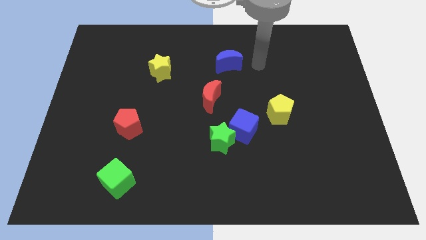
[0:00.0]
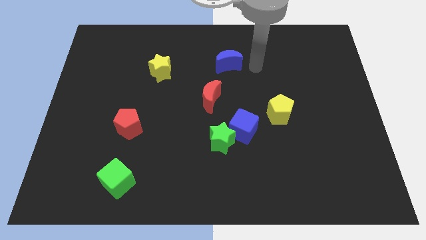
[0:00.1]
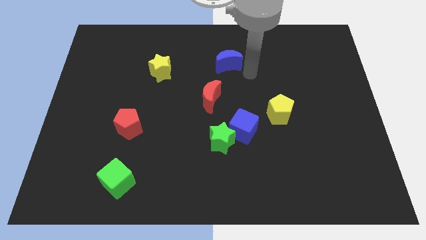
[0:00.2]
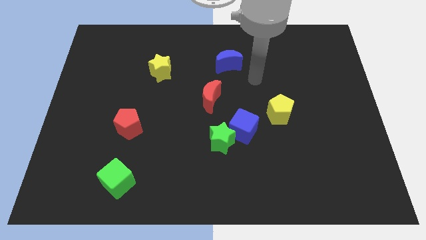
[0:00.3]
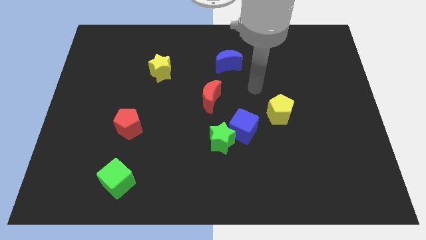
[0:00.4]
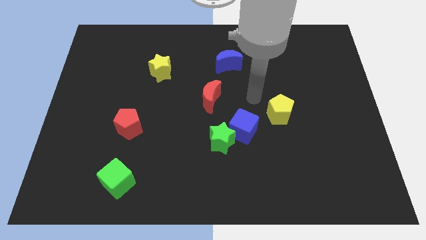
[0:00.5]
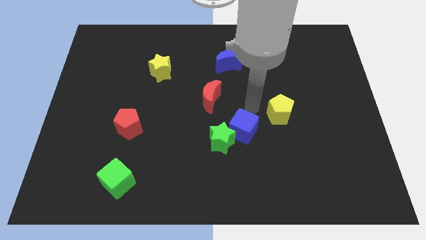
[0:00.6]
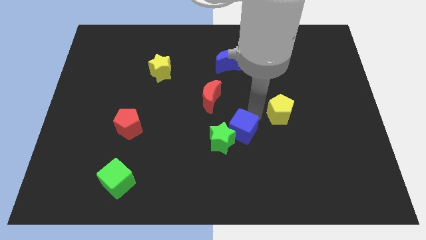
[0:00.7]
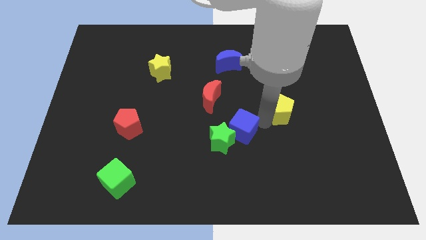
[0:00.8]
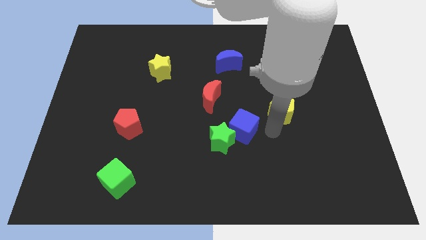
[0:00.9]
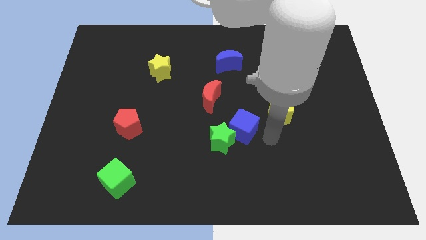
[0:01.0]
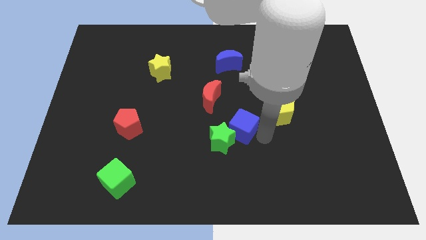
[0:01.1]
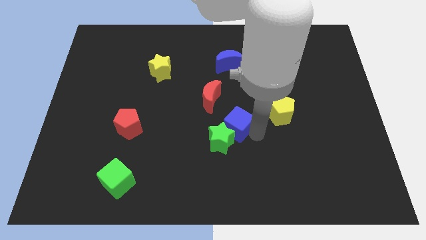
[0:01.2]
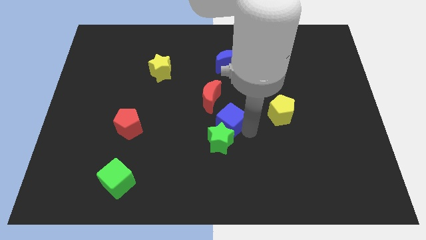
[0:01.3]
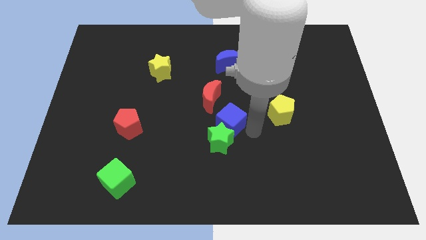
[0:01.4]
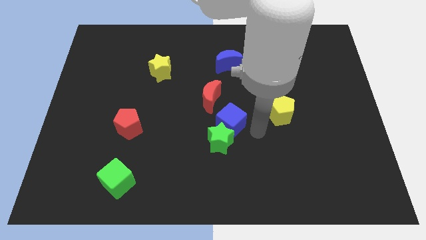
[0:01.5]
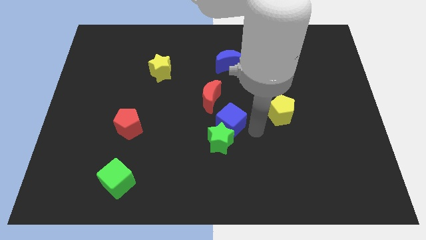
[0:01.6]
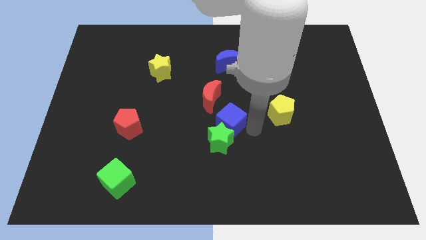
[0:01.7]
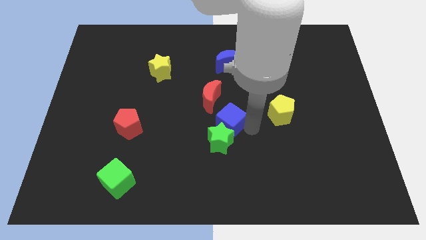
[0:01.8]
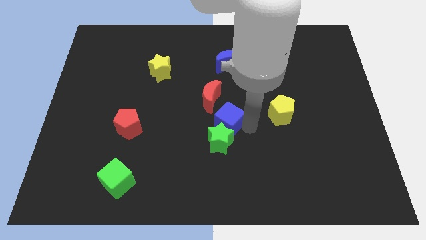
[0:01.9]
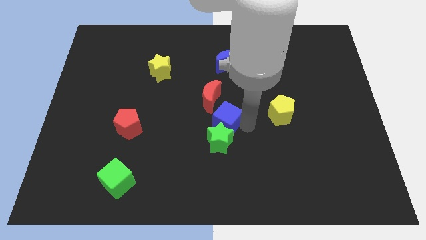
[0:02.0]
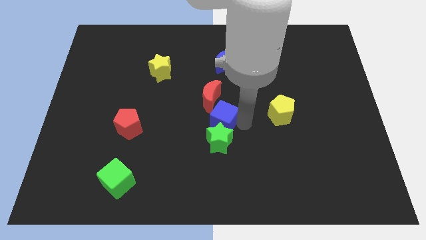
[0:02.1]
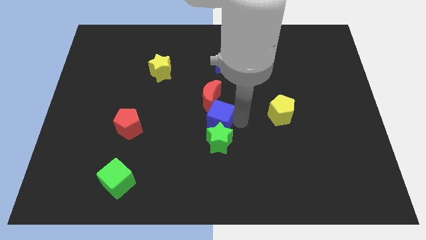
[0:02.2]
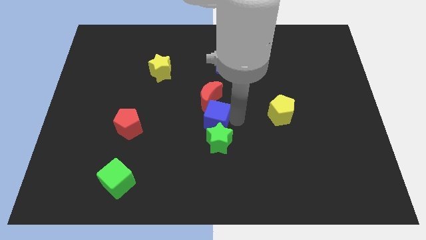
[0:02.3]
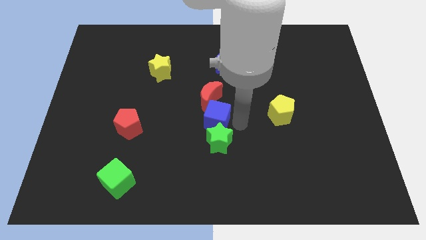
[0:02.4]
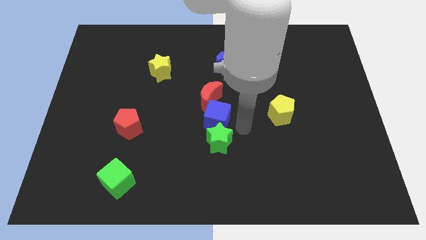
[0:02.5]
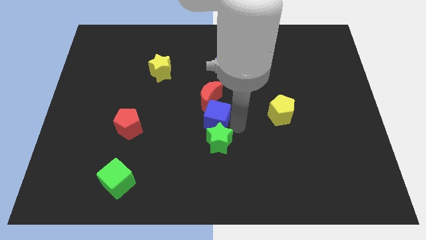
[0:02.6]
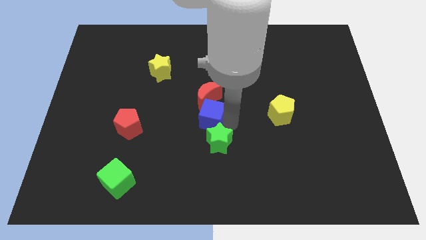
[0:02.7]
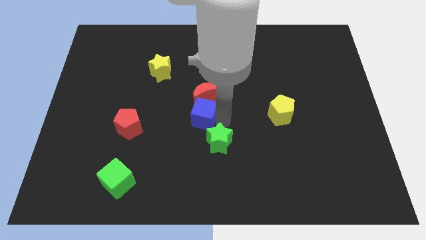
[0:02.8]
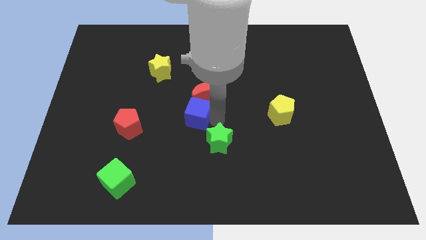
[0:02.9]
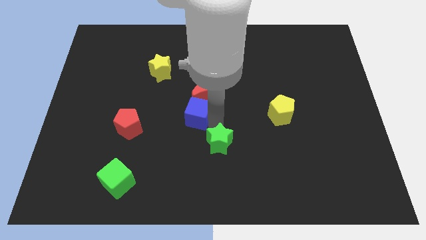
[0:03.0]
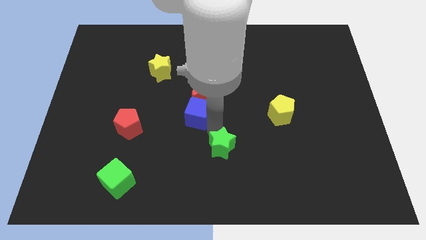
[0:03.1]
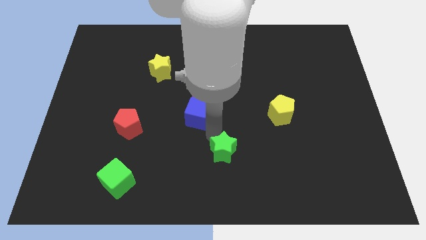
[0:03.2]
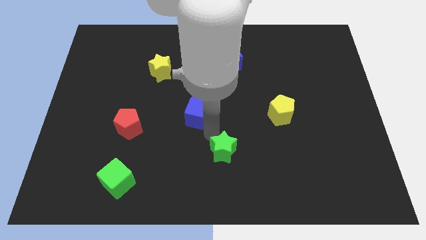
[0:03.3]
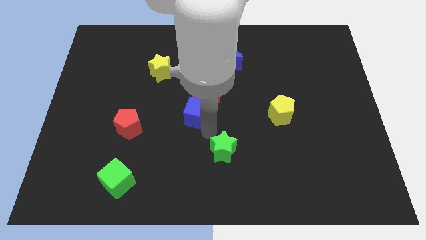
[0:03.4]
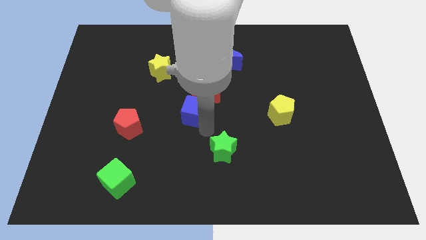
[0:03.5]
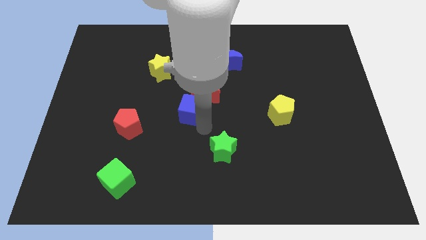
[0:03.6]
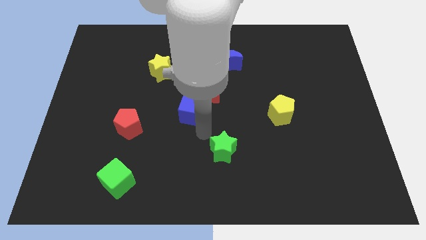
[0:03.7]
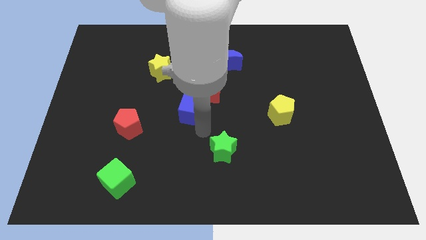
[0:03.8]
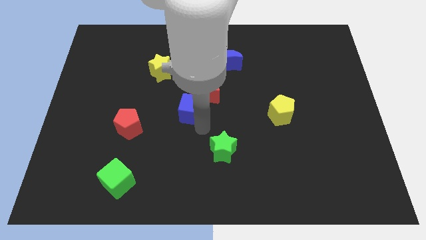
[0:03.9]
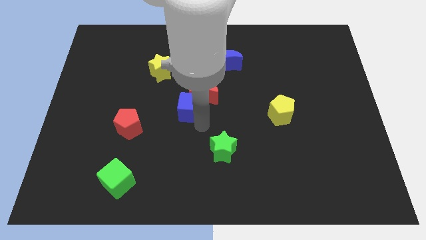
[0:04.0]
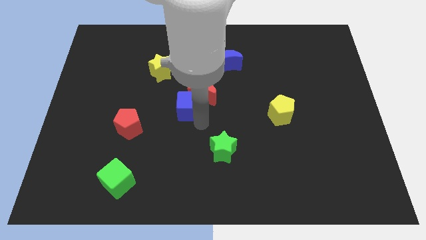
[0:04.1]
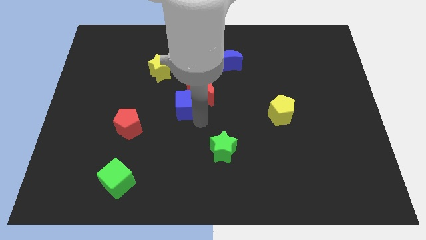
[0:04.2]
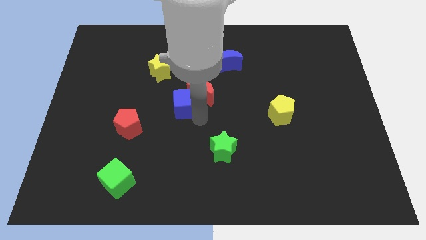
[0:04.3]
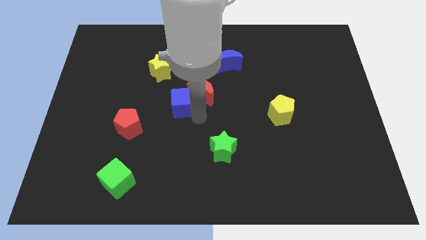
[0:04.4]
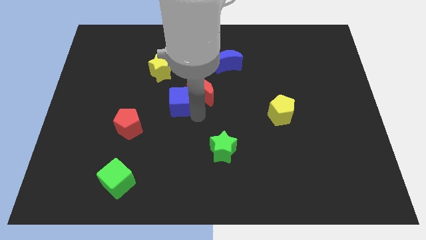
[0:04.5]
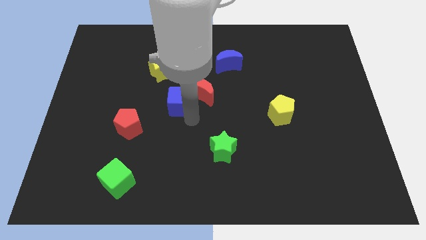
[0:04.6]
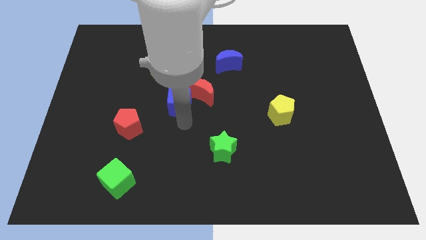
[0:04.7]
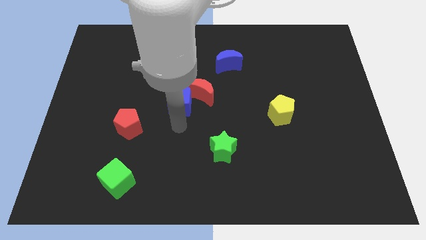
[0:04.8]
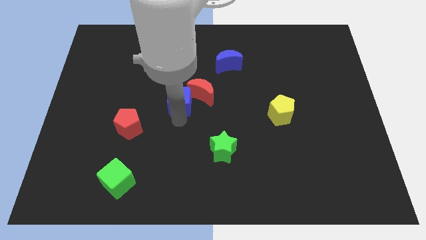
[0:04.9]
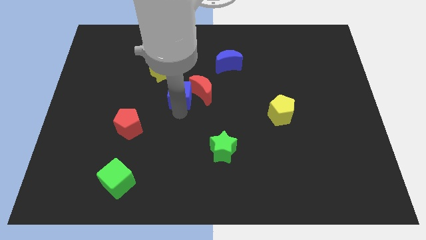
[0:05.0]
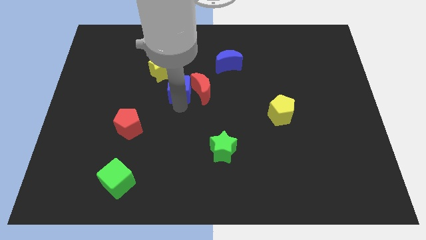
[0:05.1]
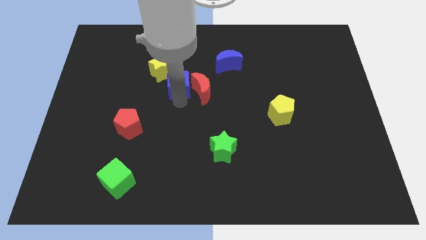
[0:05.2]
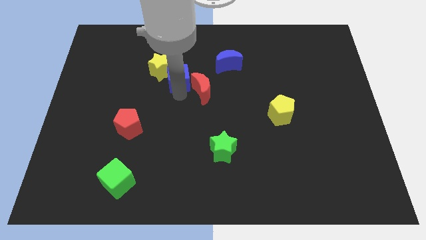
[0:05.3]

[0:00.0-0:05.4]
slide the blue cube up and then left

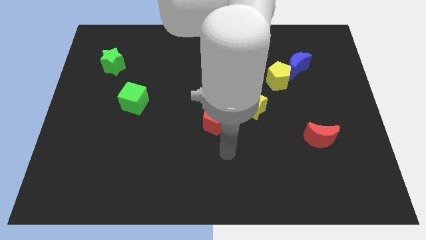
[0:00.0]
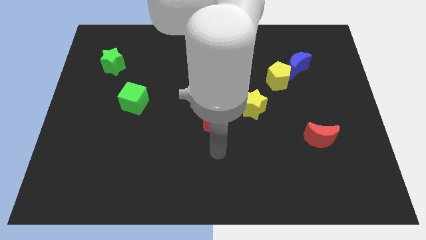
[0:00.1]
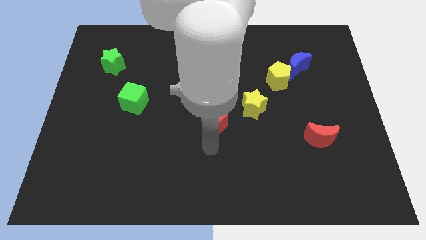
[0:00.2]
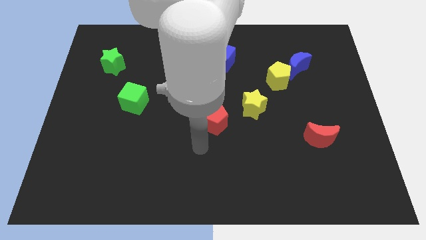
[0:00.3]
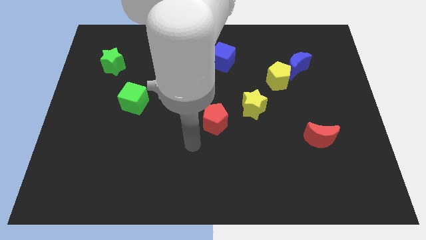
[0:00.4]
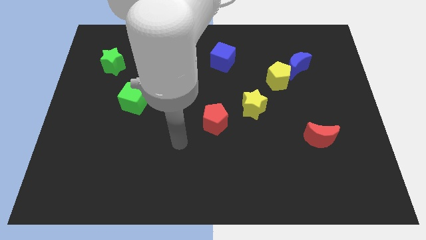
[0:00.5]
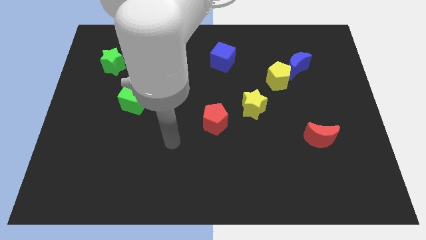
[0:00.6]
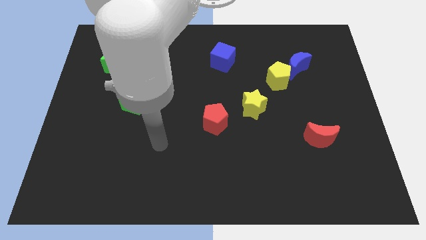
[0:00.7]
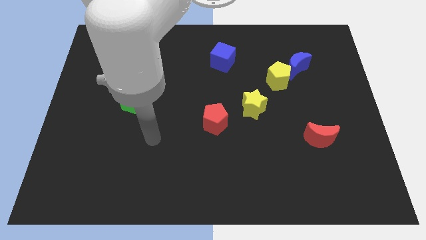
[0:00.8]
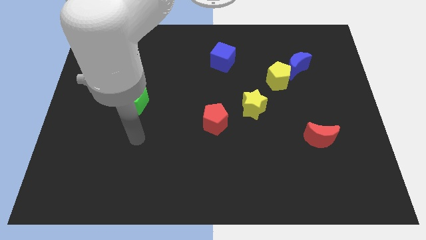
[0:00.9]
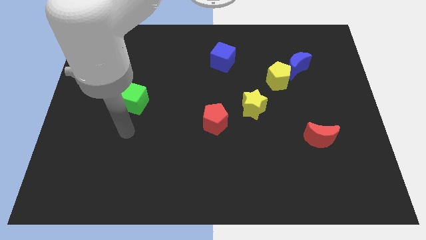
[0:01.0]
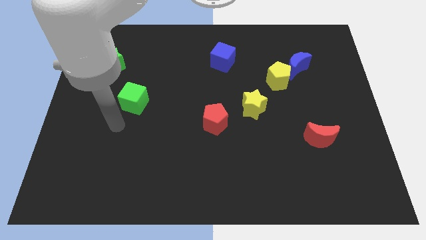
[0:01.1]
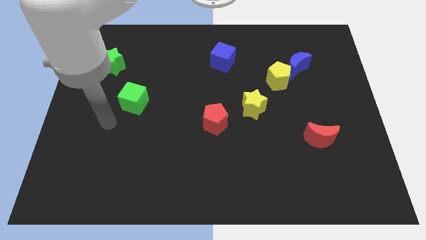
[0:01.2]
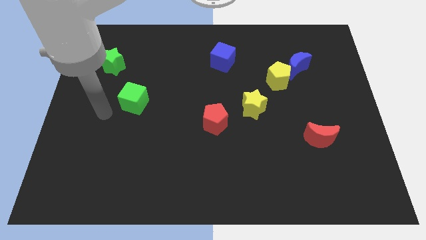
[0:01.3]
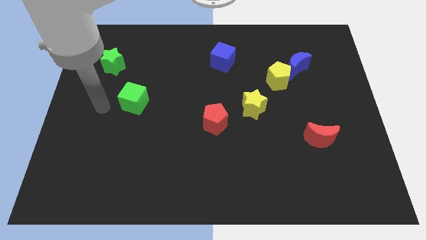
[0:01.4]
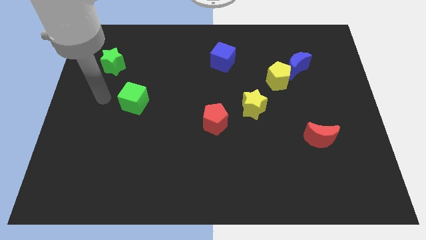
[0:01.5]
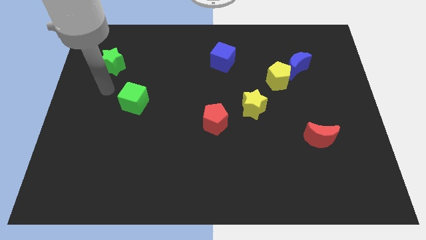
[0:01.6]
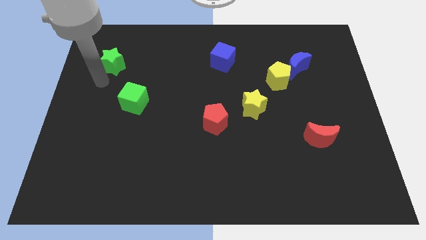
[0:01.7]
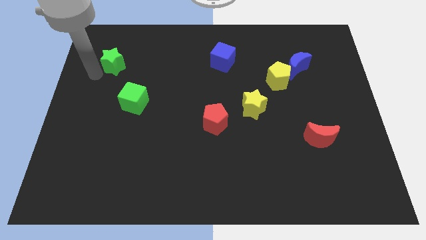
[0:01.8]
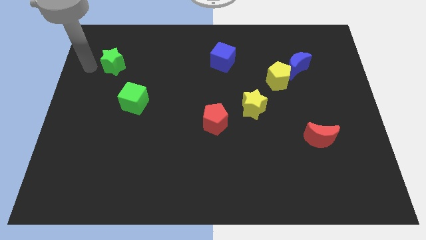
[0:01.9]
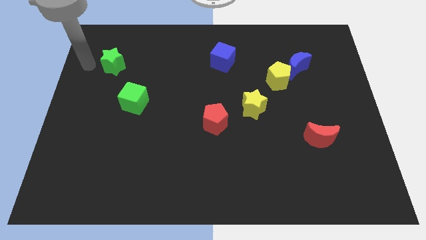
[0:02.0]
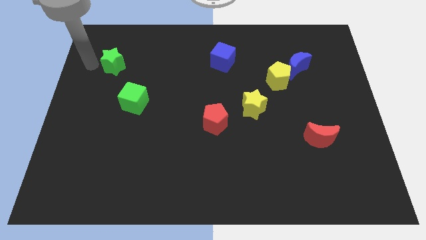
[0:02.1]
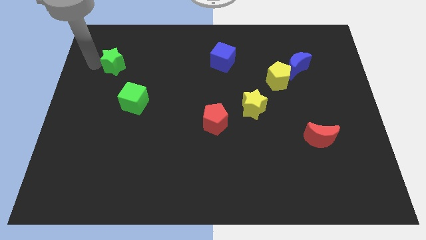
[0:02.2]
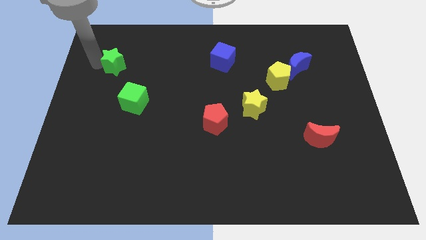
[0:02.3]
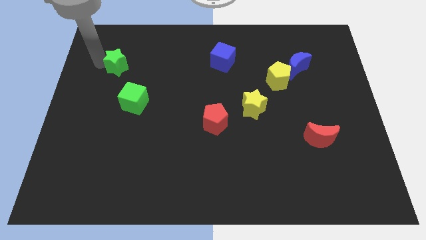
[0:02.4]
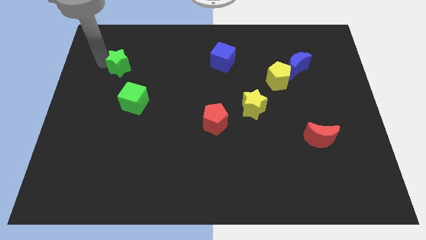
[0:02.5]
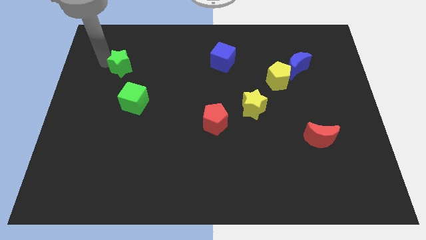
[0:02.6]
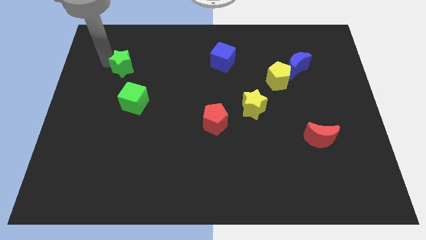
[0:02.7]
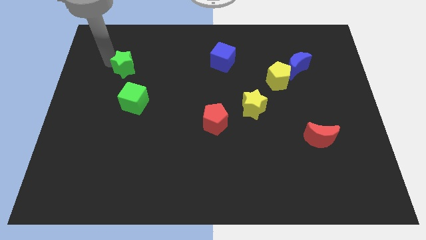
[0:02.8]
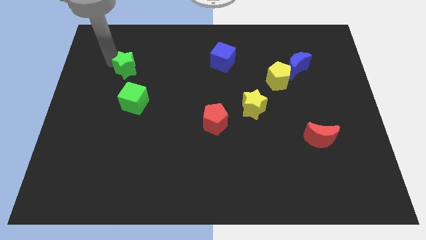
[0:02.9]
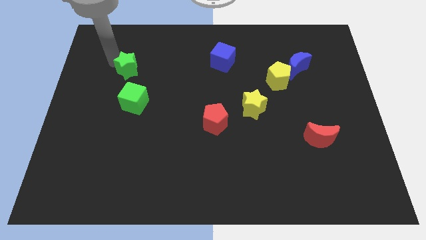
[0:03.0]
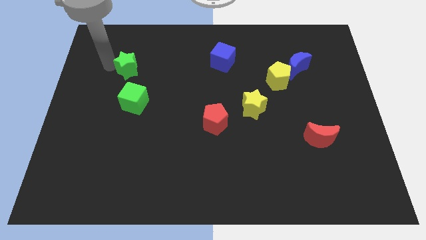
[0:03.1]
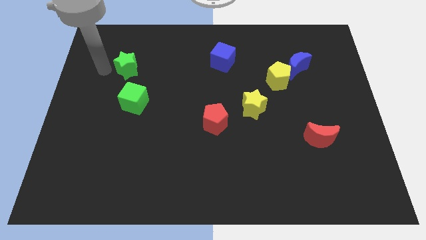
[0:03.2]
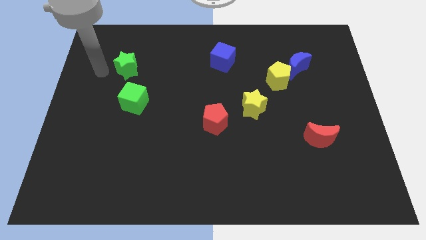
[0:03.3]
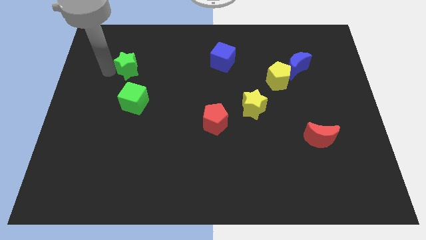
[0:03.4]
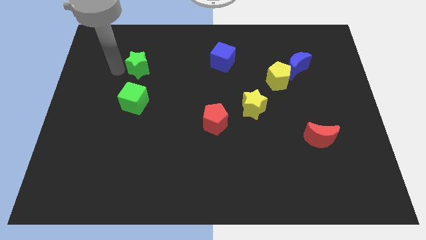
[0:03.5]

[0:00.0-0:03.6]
move the green star to the right slightly
